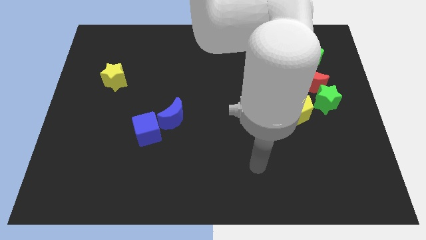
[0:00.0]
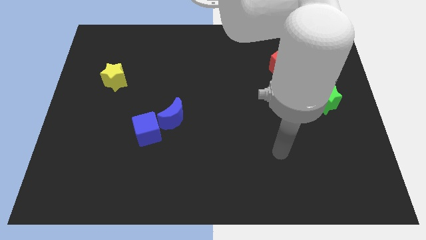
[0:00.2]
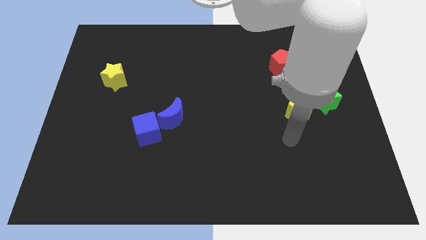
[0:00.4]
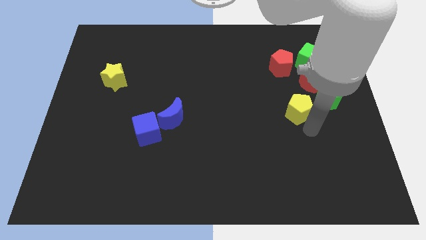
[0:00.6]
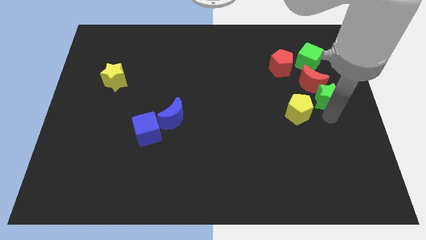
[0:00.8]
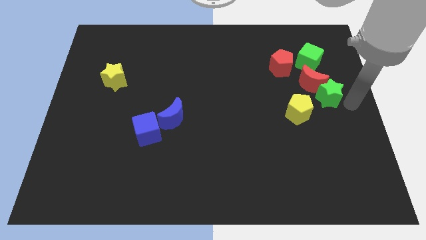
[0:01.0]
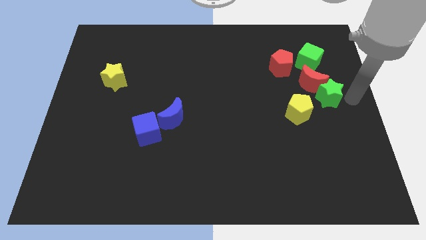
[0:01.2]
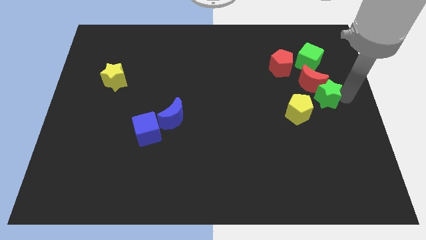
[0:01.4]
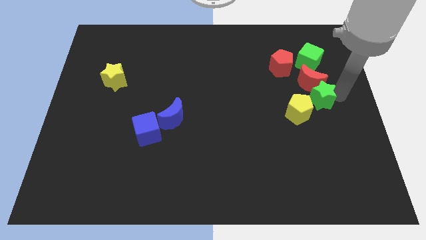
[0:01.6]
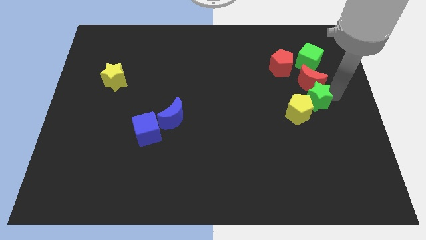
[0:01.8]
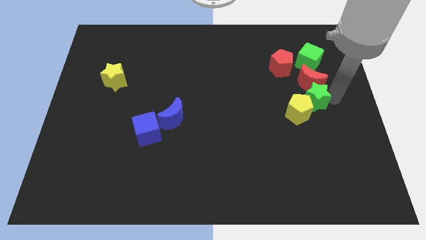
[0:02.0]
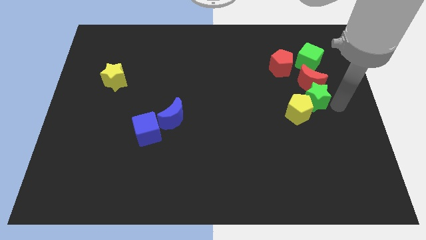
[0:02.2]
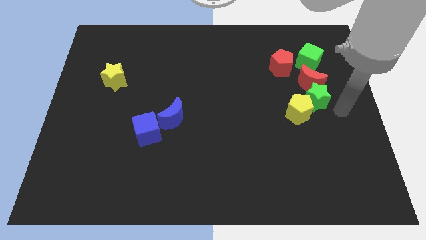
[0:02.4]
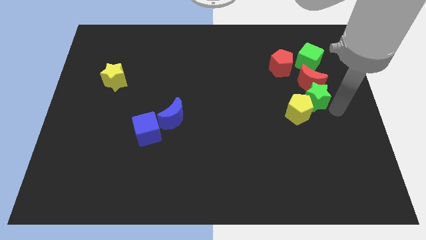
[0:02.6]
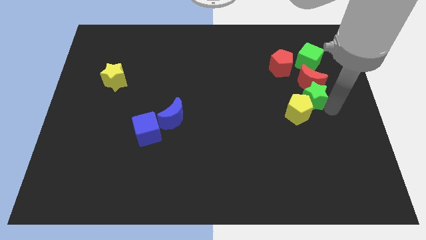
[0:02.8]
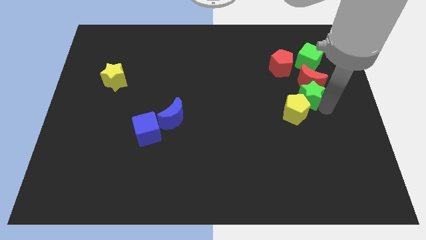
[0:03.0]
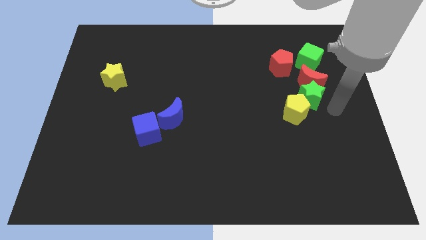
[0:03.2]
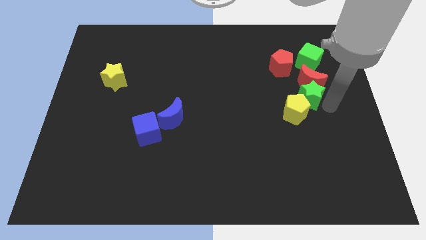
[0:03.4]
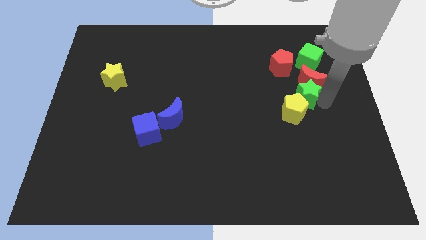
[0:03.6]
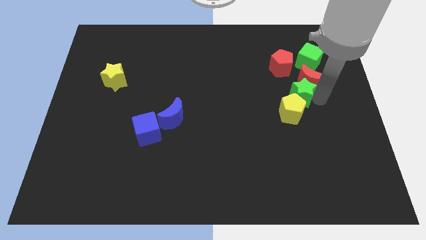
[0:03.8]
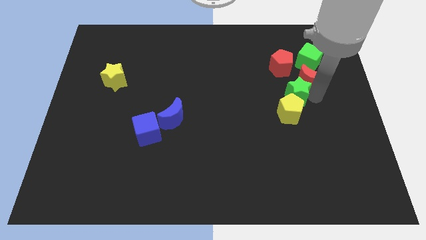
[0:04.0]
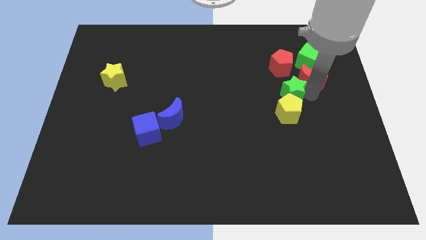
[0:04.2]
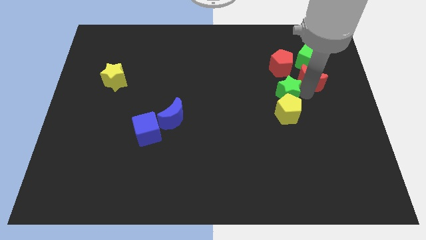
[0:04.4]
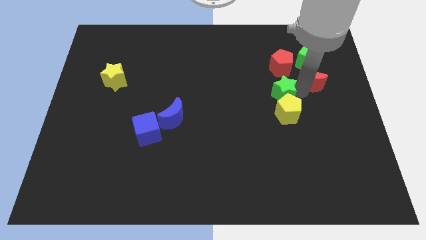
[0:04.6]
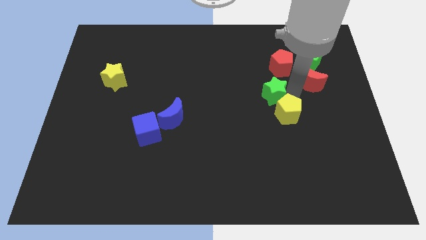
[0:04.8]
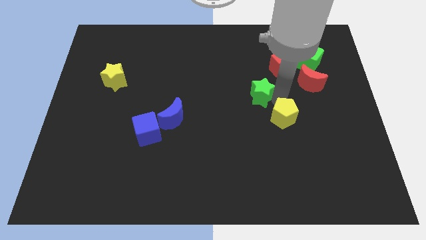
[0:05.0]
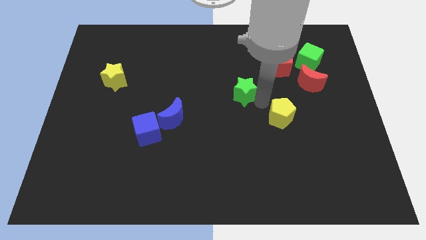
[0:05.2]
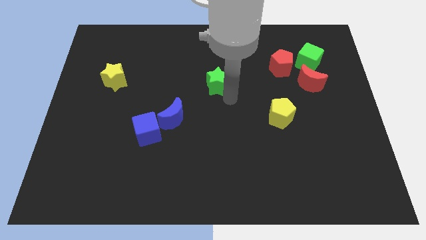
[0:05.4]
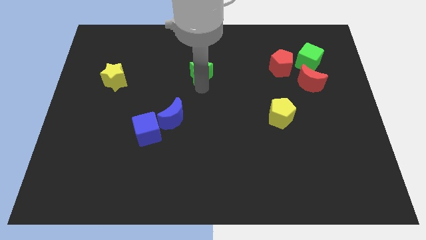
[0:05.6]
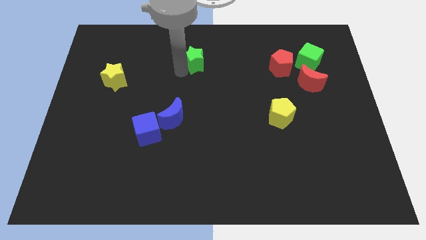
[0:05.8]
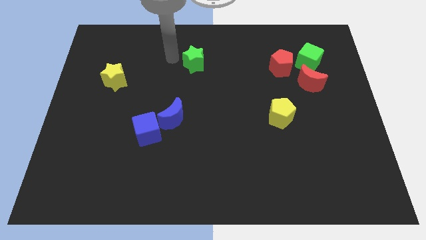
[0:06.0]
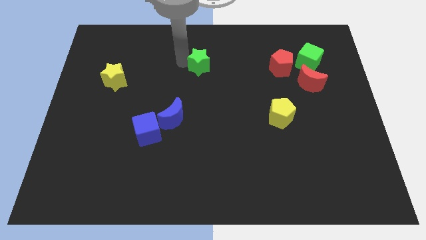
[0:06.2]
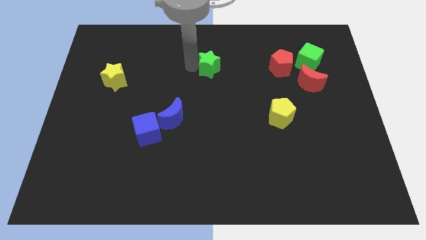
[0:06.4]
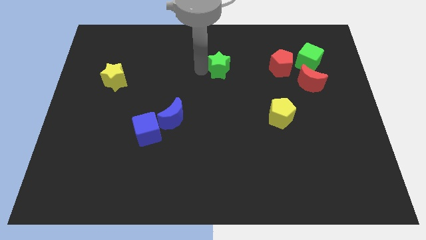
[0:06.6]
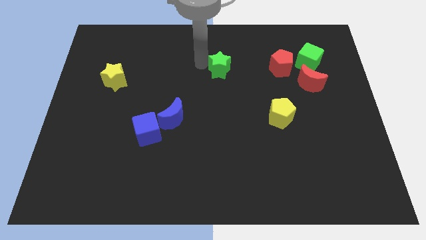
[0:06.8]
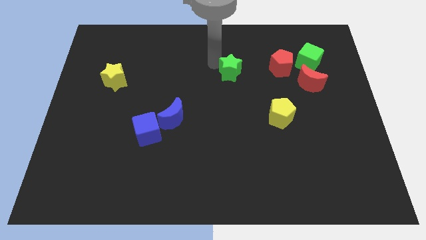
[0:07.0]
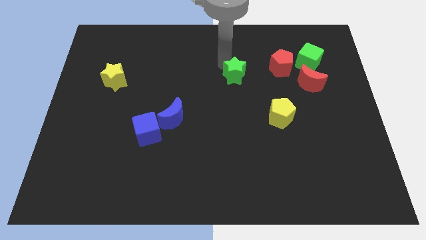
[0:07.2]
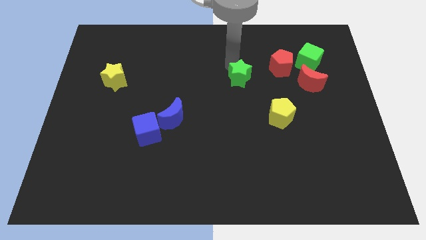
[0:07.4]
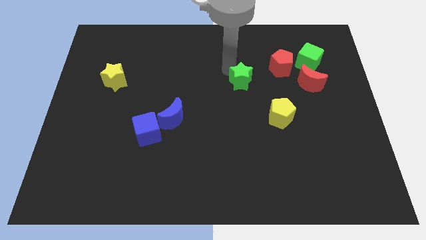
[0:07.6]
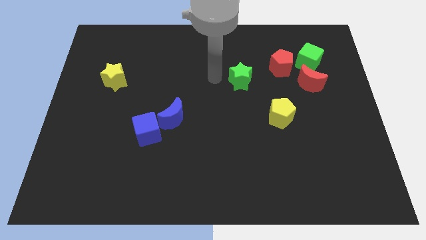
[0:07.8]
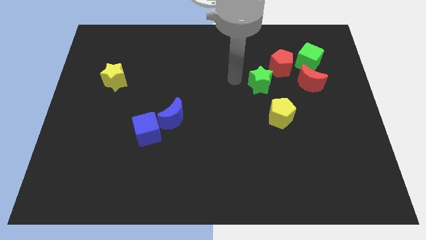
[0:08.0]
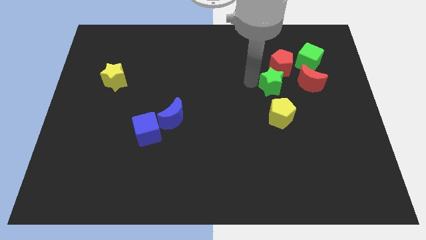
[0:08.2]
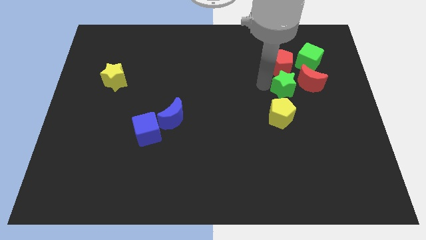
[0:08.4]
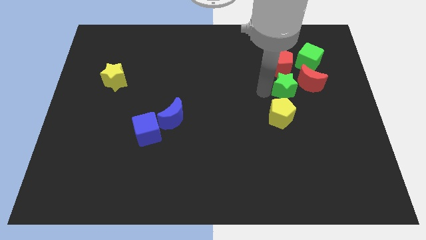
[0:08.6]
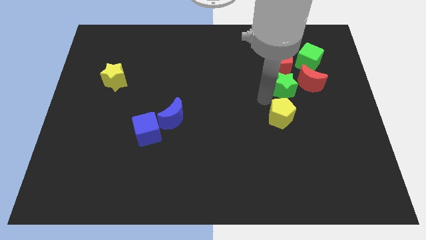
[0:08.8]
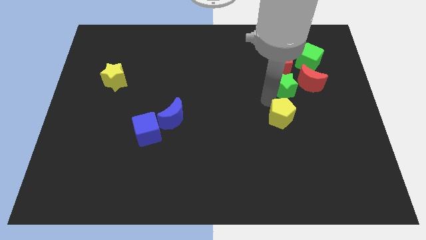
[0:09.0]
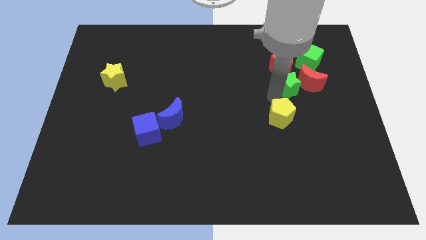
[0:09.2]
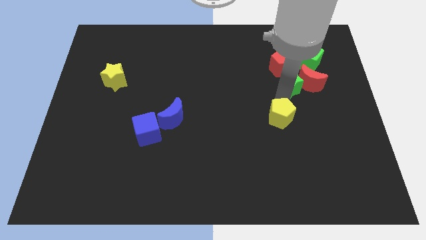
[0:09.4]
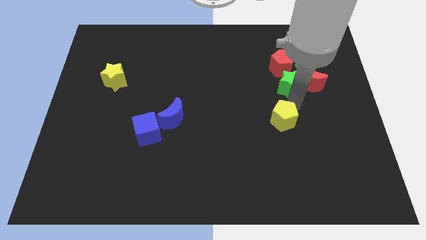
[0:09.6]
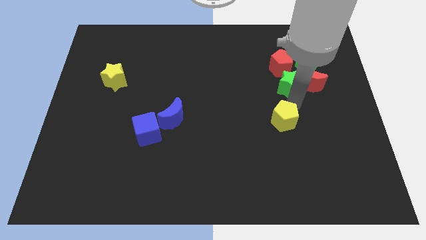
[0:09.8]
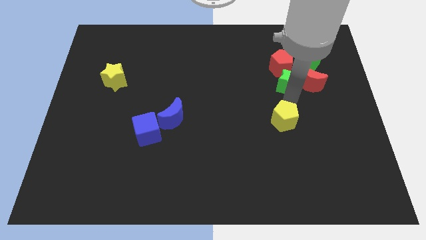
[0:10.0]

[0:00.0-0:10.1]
move the green star to the red pentagon

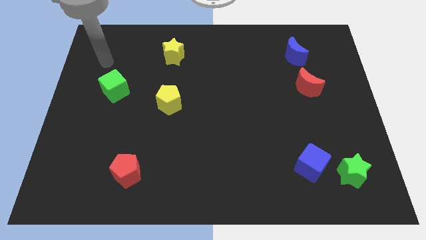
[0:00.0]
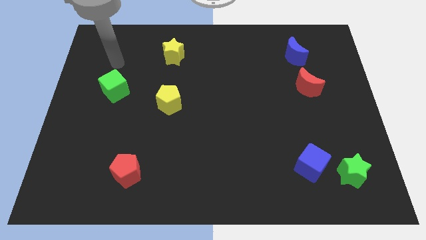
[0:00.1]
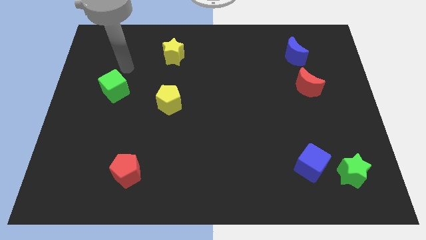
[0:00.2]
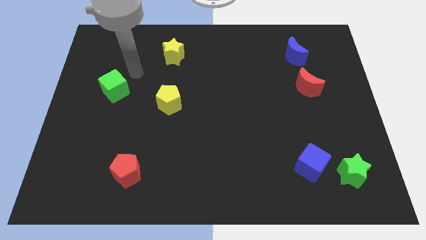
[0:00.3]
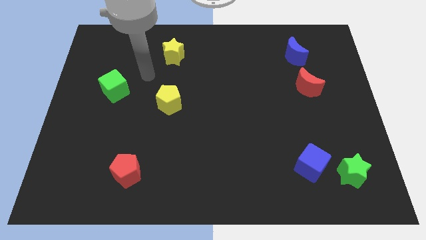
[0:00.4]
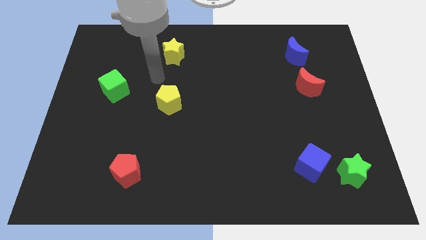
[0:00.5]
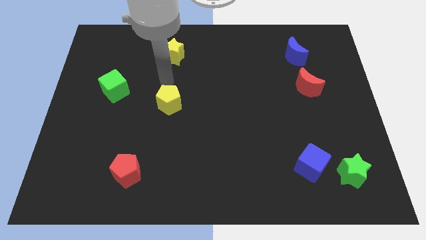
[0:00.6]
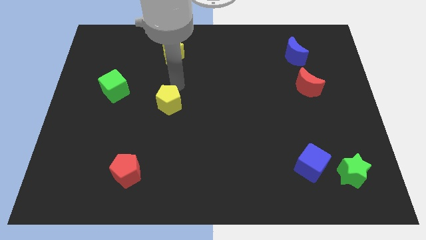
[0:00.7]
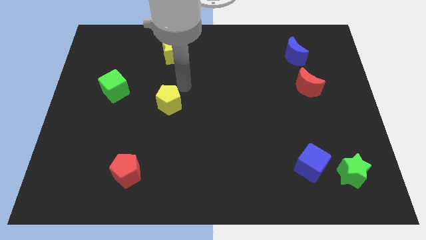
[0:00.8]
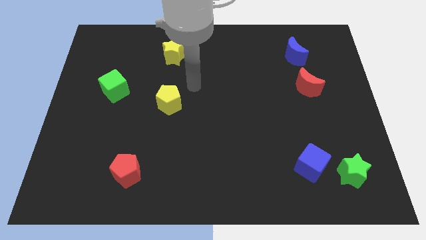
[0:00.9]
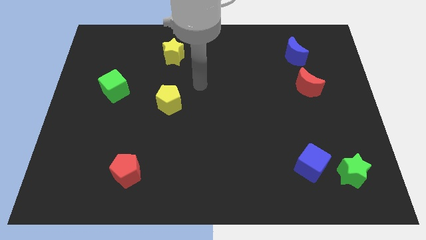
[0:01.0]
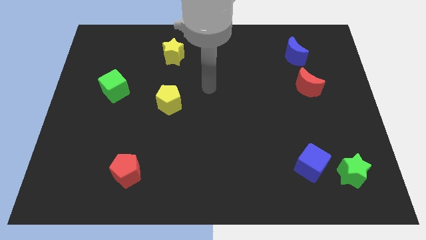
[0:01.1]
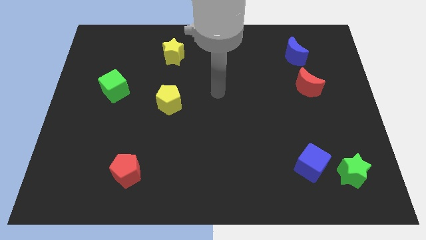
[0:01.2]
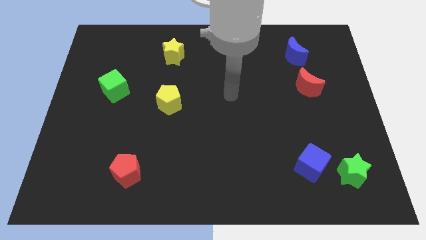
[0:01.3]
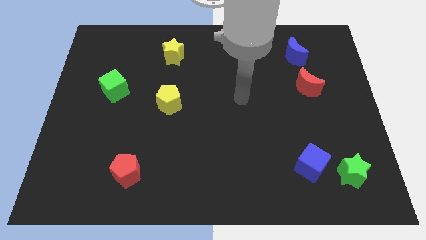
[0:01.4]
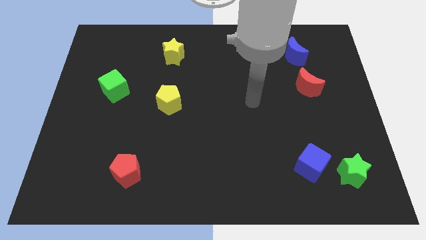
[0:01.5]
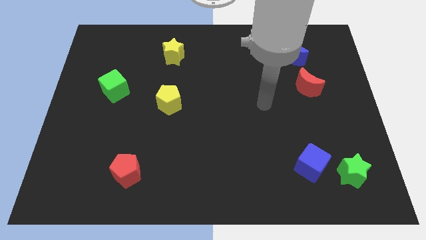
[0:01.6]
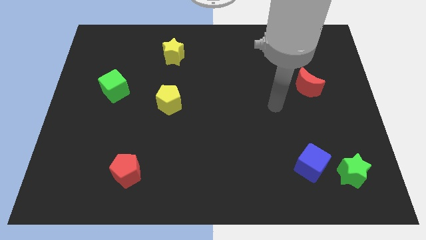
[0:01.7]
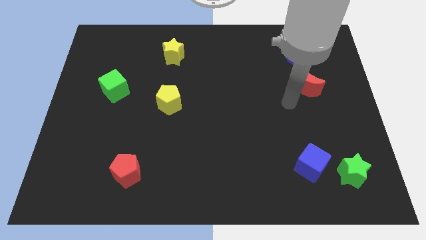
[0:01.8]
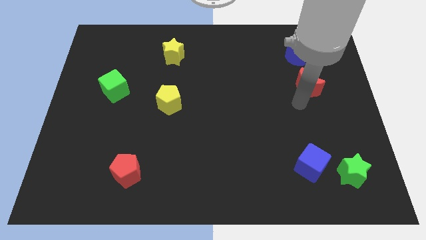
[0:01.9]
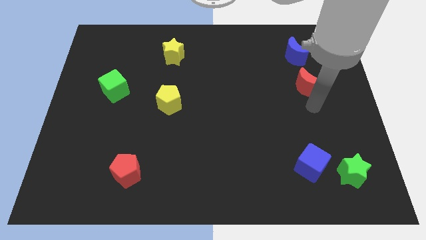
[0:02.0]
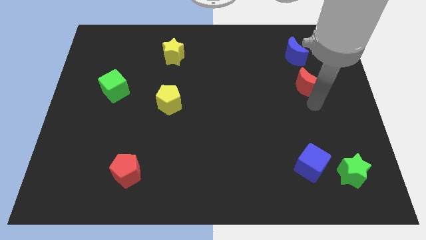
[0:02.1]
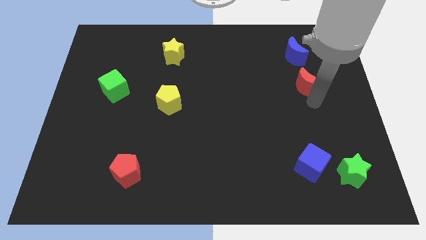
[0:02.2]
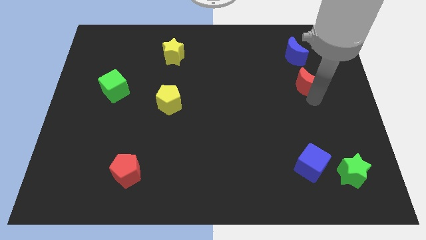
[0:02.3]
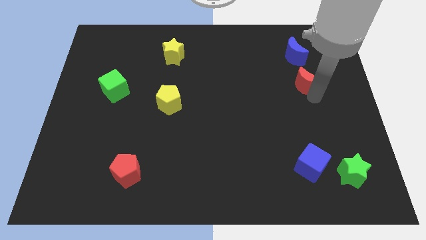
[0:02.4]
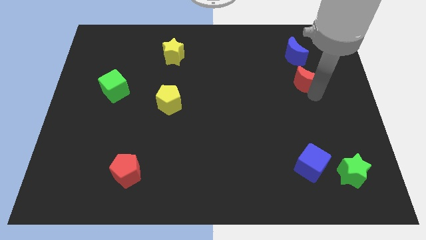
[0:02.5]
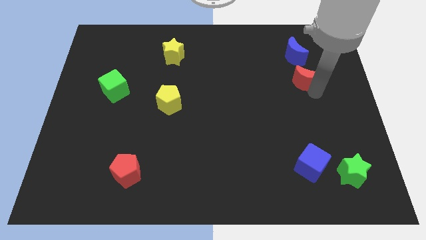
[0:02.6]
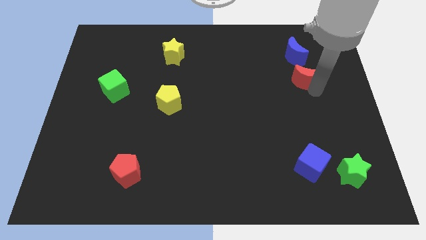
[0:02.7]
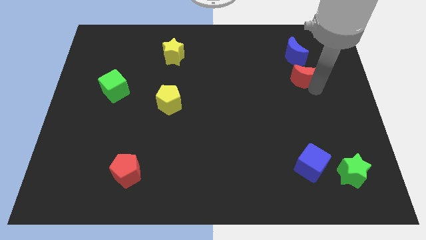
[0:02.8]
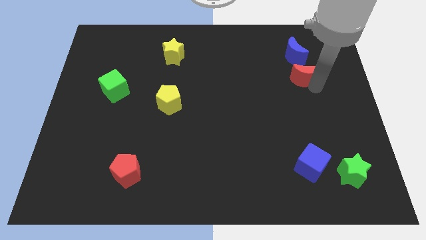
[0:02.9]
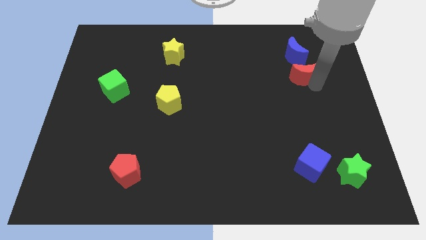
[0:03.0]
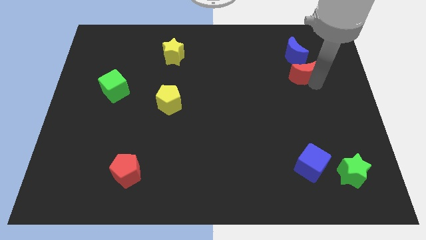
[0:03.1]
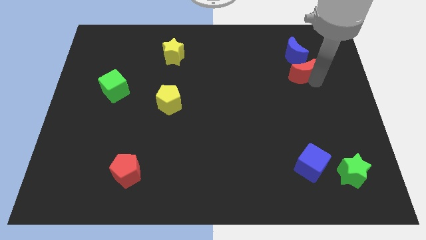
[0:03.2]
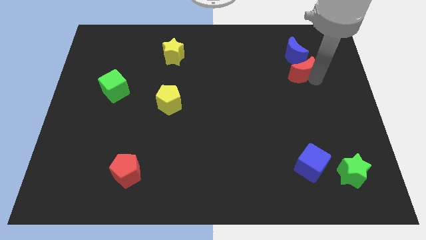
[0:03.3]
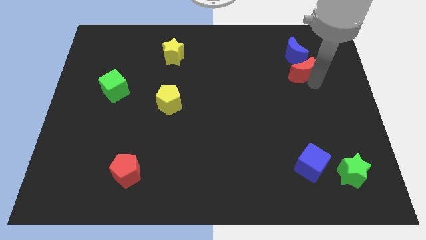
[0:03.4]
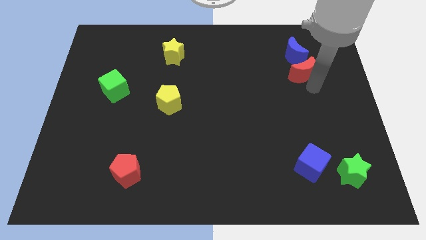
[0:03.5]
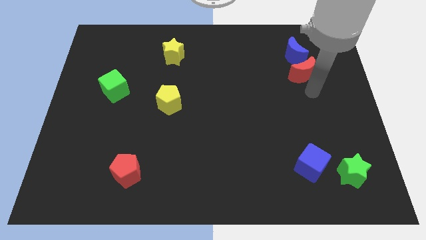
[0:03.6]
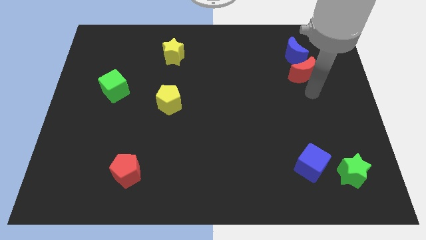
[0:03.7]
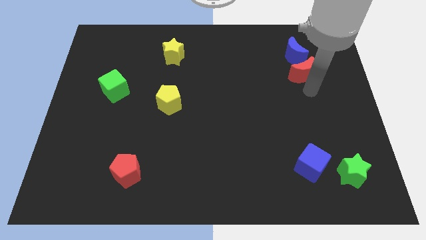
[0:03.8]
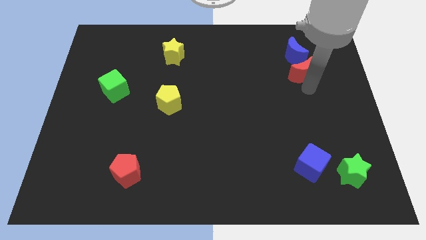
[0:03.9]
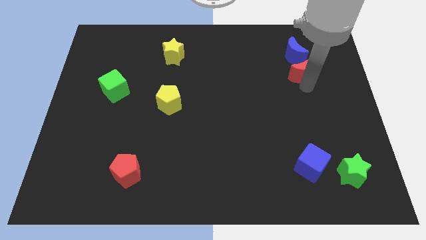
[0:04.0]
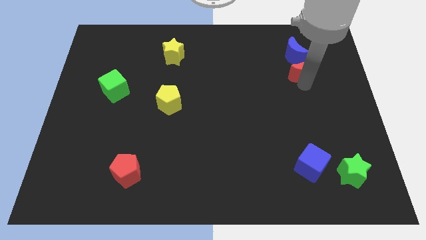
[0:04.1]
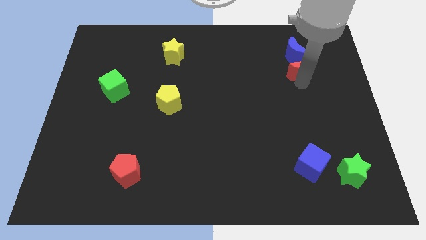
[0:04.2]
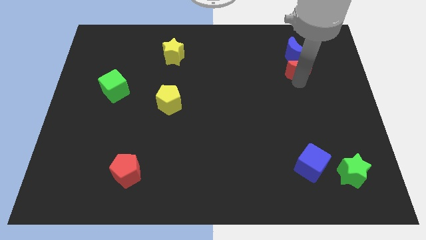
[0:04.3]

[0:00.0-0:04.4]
move the red moon towards the blue moon
